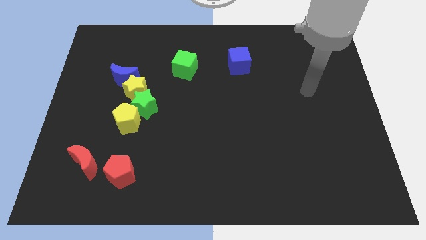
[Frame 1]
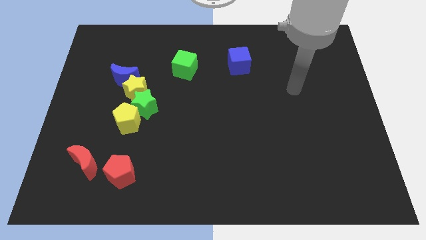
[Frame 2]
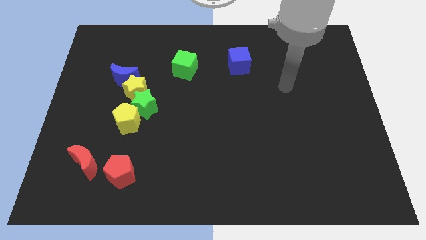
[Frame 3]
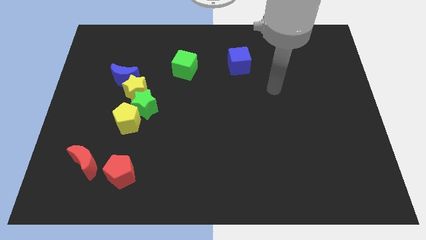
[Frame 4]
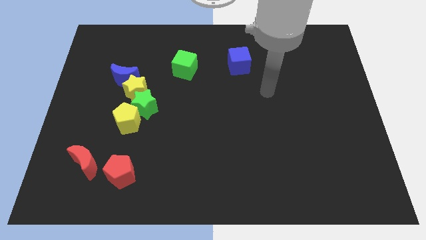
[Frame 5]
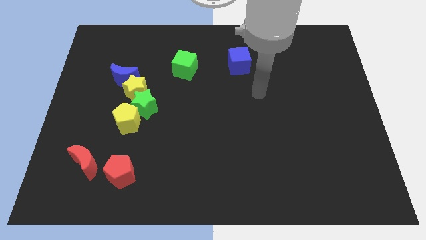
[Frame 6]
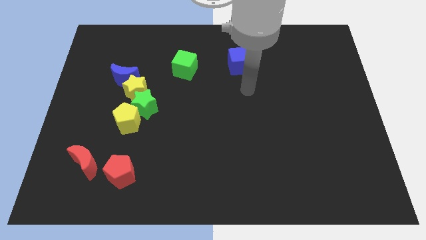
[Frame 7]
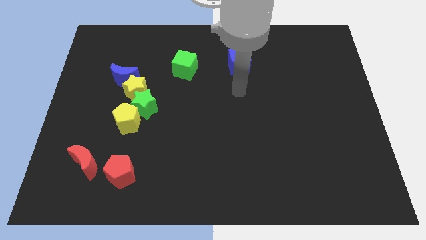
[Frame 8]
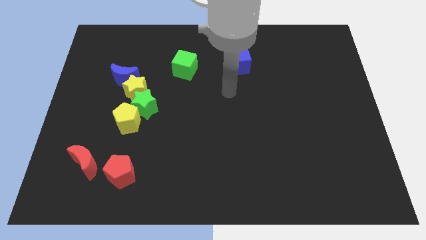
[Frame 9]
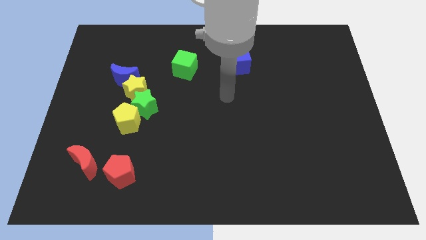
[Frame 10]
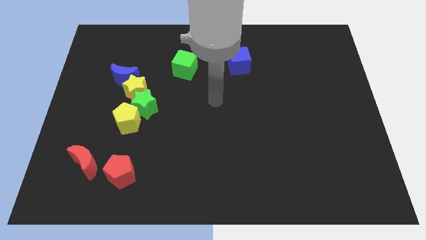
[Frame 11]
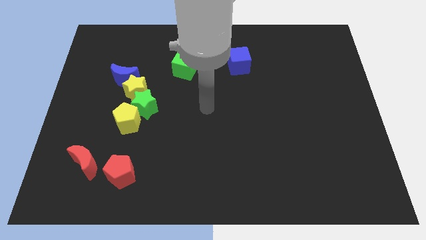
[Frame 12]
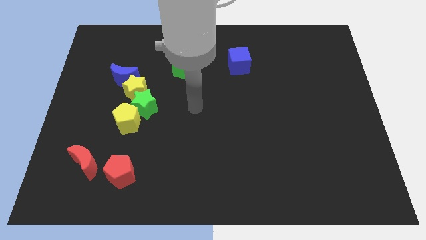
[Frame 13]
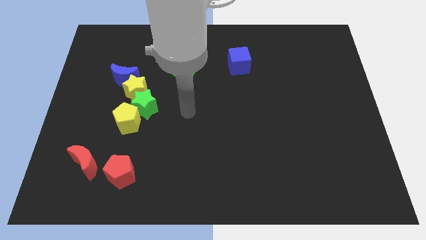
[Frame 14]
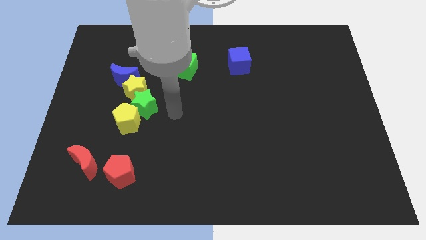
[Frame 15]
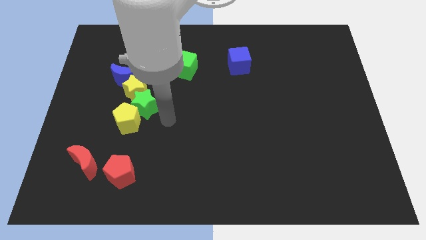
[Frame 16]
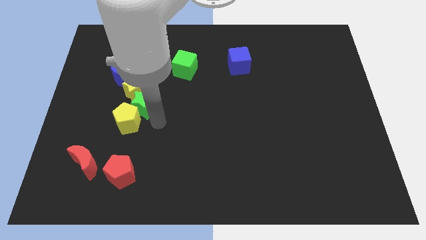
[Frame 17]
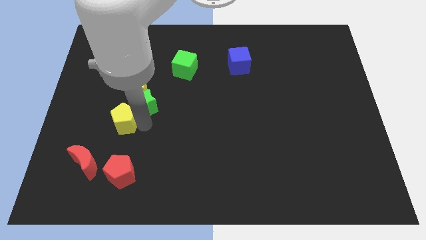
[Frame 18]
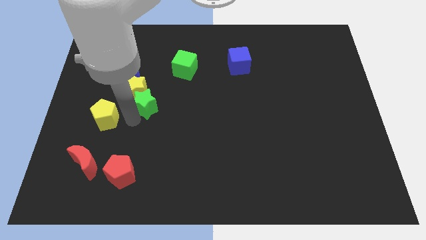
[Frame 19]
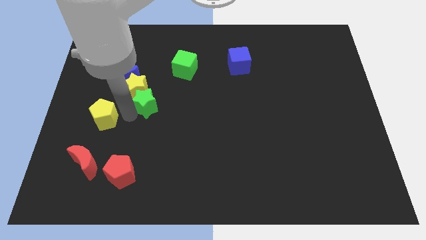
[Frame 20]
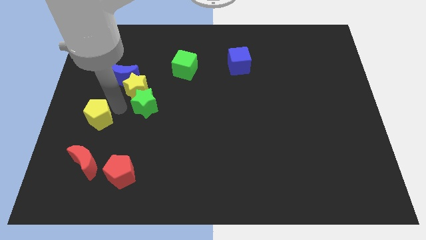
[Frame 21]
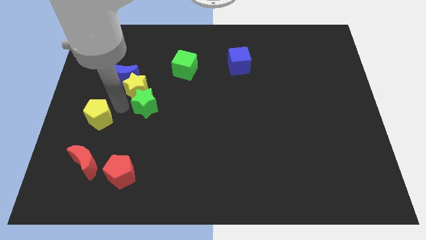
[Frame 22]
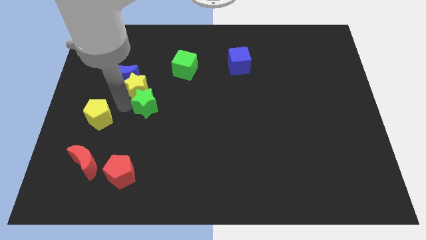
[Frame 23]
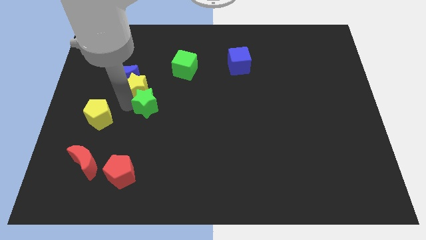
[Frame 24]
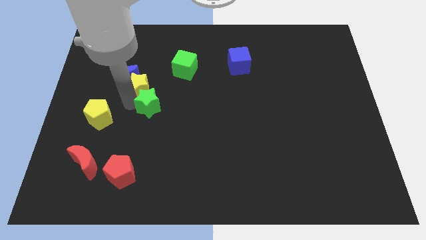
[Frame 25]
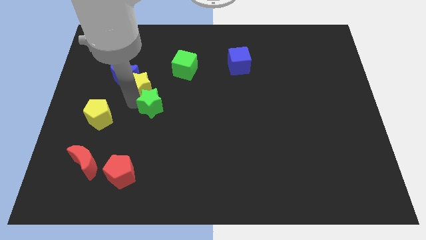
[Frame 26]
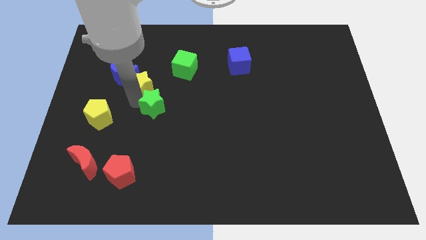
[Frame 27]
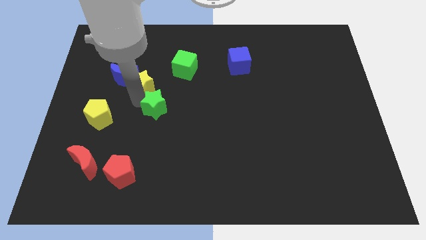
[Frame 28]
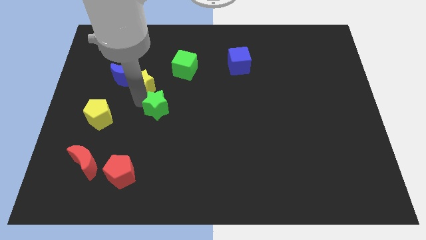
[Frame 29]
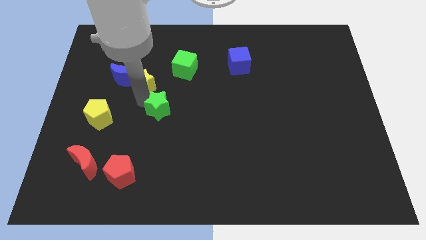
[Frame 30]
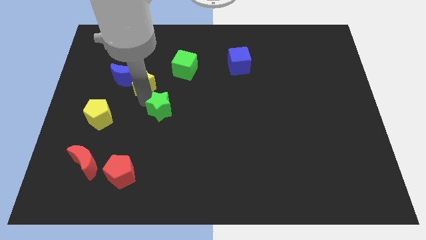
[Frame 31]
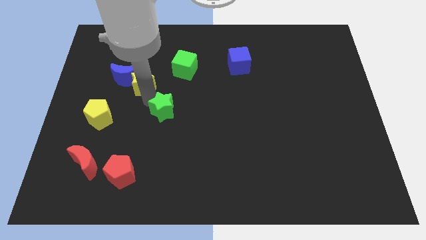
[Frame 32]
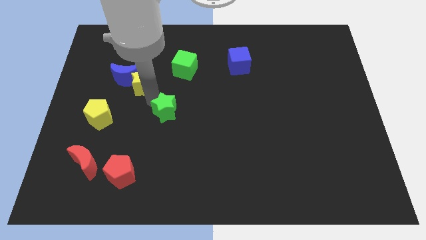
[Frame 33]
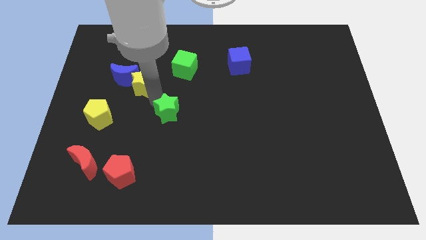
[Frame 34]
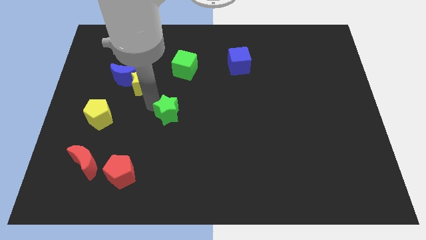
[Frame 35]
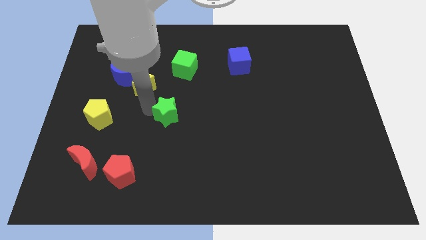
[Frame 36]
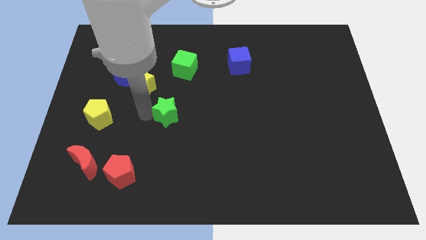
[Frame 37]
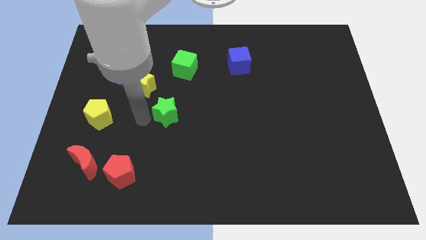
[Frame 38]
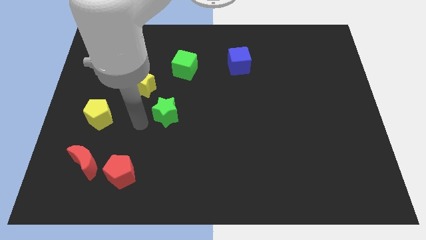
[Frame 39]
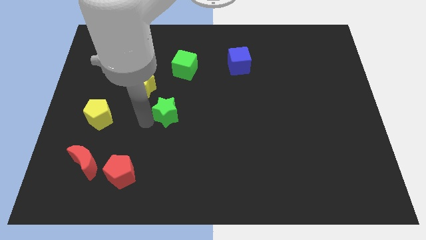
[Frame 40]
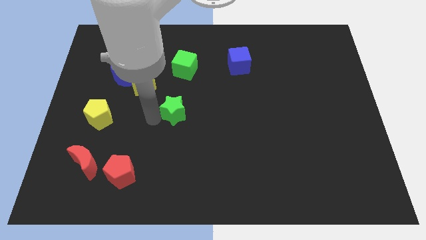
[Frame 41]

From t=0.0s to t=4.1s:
slightly push the green star right

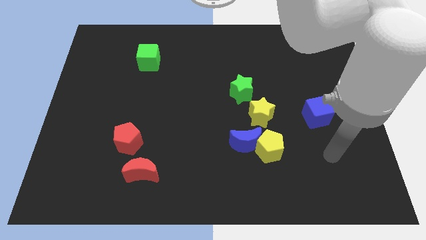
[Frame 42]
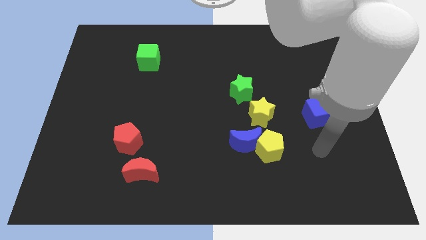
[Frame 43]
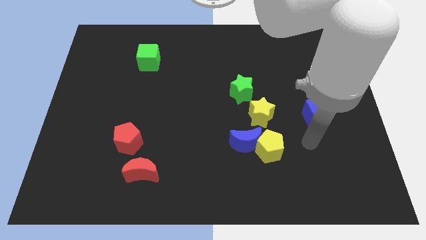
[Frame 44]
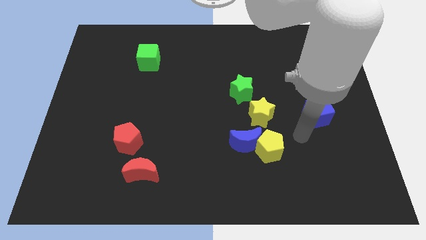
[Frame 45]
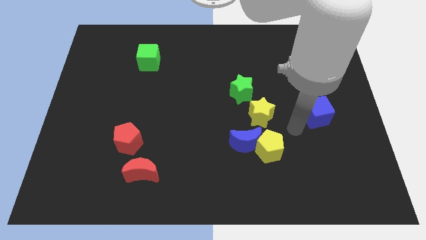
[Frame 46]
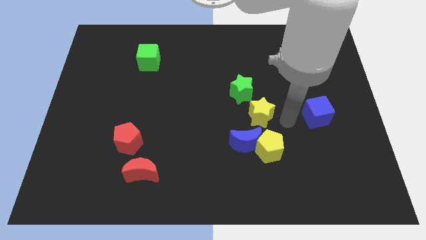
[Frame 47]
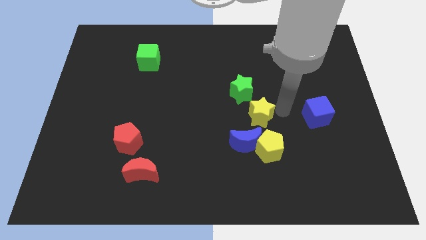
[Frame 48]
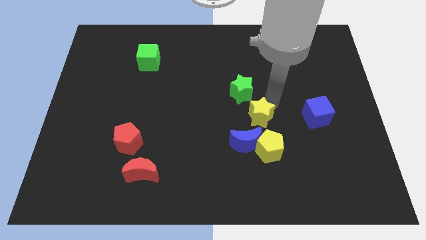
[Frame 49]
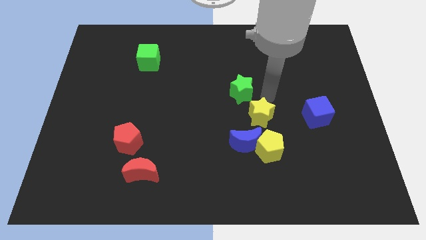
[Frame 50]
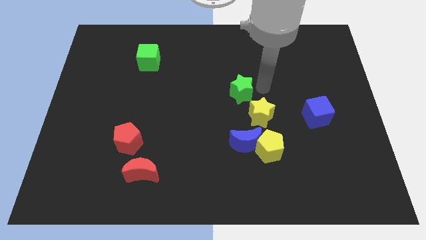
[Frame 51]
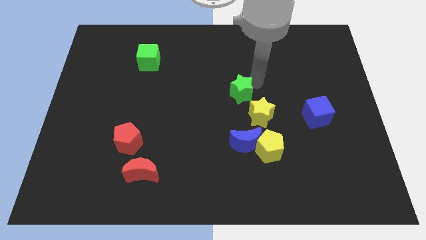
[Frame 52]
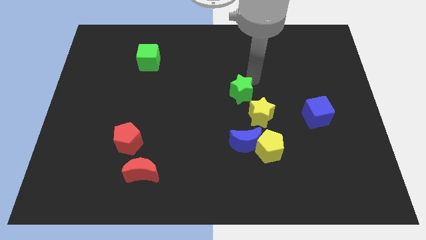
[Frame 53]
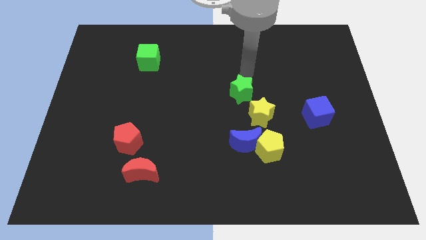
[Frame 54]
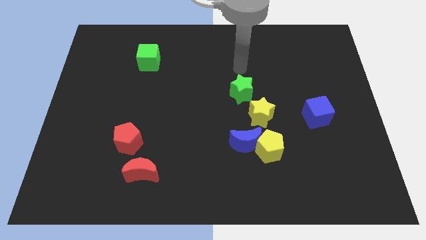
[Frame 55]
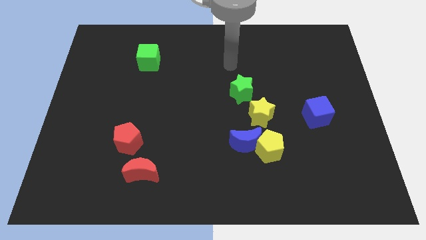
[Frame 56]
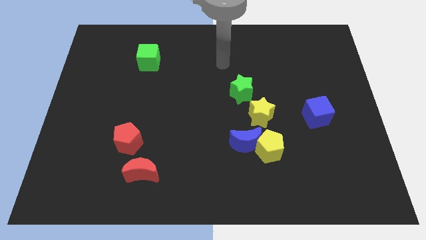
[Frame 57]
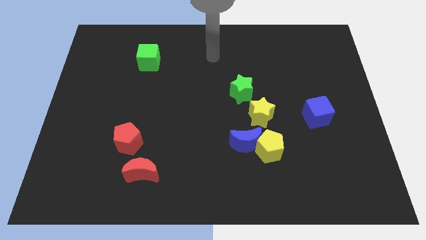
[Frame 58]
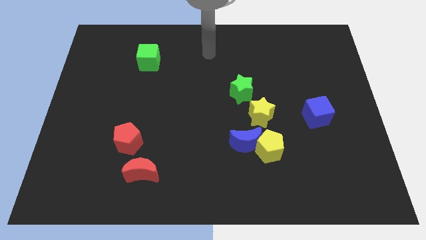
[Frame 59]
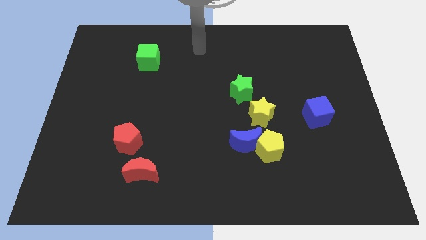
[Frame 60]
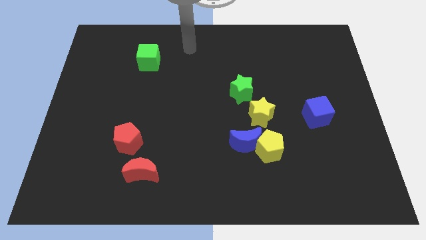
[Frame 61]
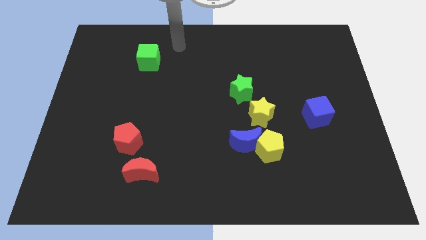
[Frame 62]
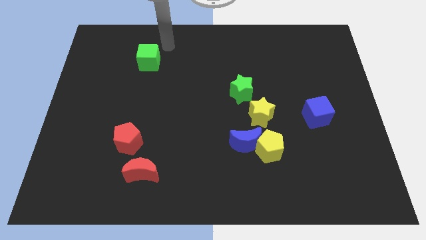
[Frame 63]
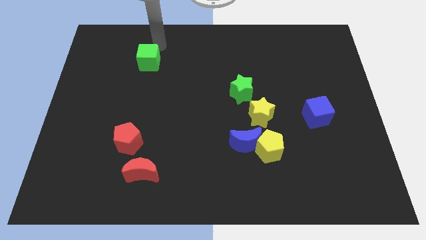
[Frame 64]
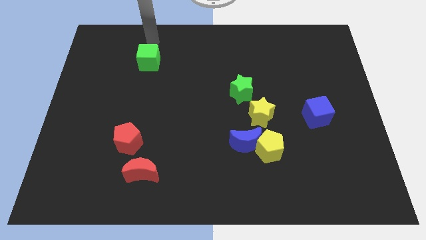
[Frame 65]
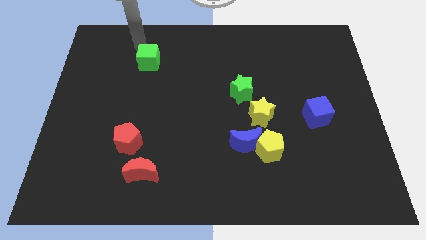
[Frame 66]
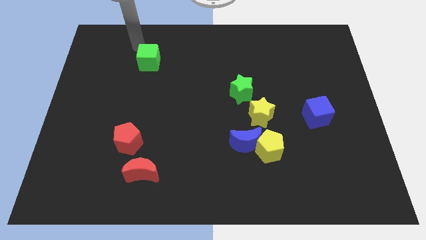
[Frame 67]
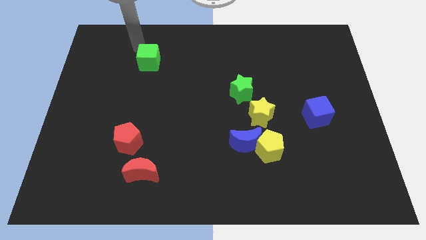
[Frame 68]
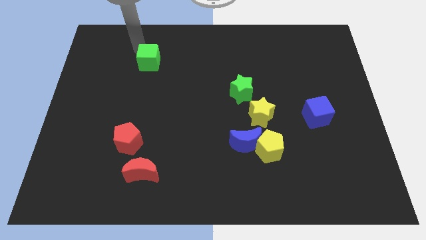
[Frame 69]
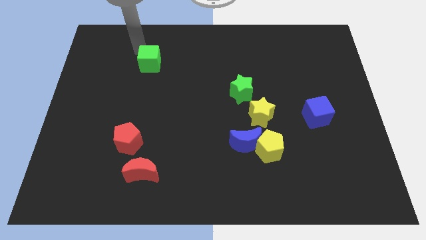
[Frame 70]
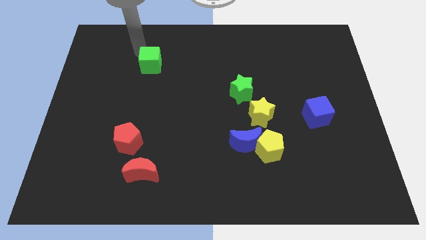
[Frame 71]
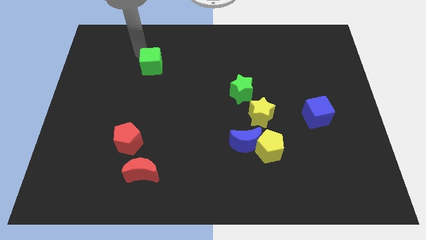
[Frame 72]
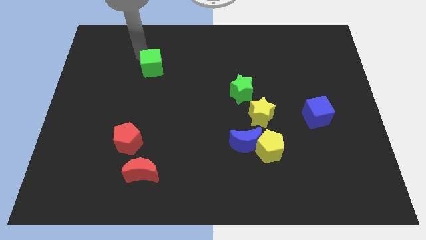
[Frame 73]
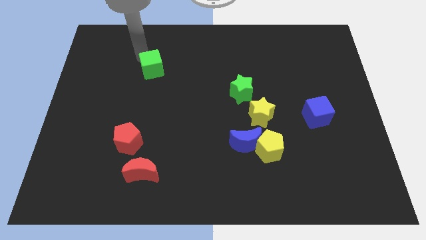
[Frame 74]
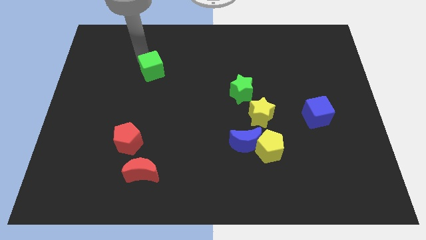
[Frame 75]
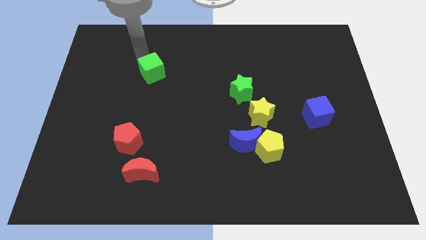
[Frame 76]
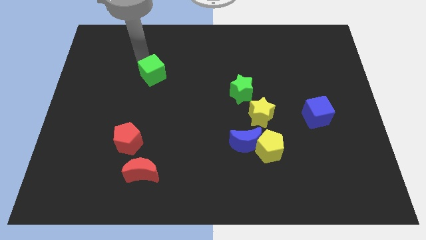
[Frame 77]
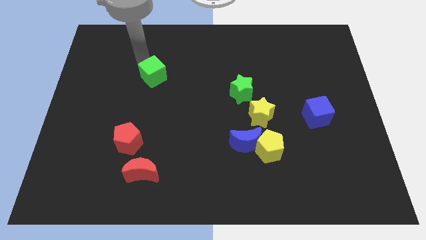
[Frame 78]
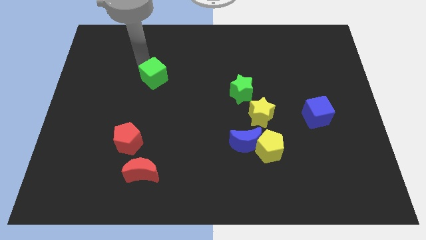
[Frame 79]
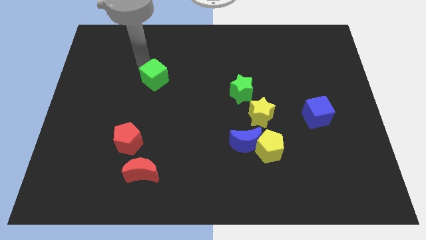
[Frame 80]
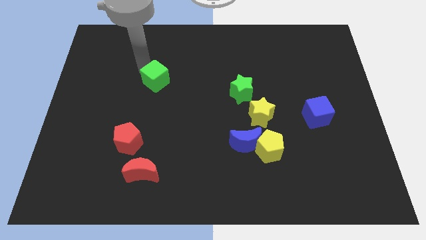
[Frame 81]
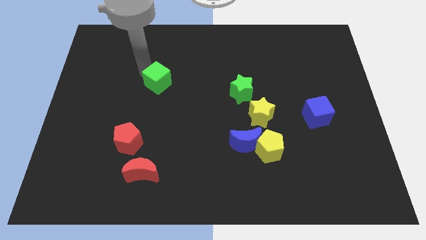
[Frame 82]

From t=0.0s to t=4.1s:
push the green cube a little diagonally down and right

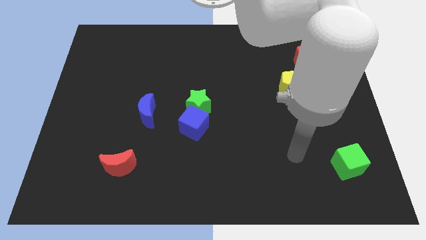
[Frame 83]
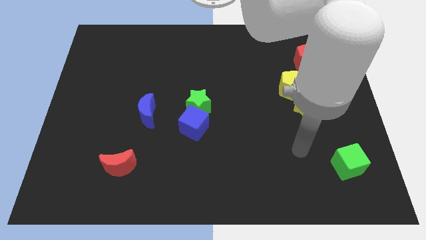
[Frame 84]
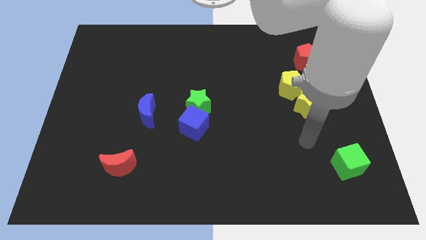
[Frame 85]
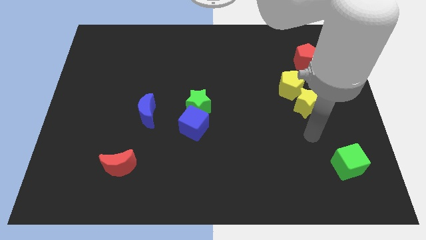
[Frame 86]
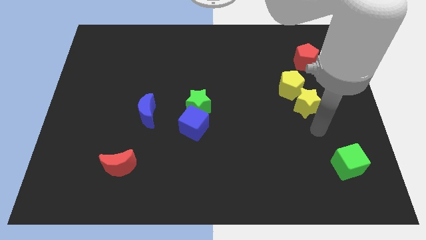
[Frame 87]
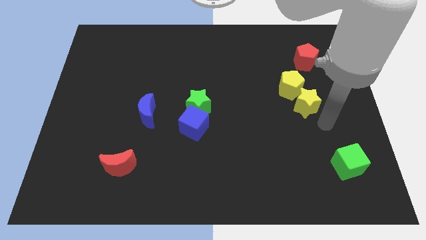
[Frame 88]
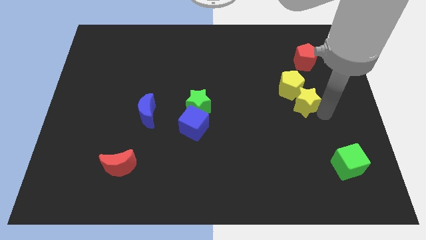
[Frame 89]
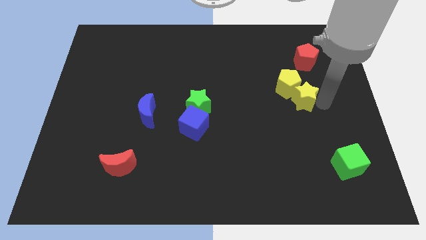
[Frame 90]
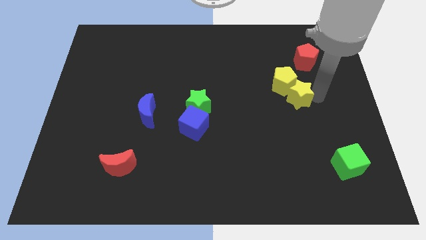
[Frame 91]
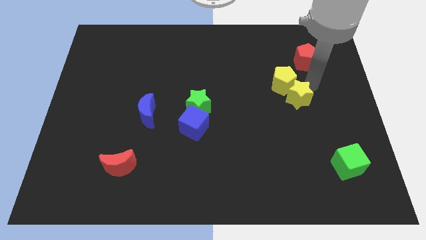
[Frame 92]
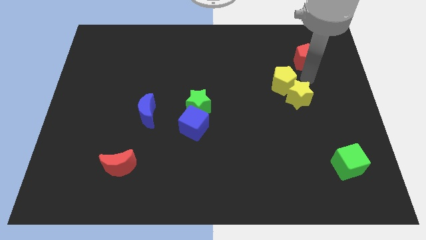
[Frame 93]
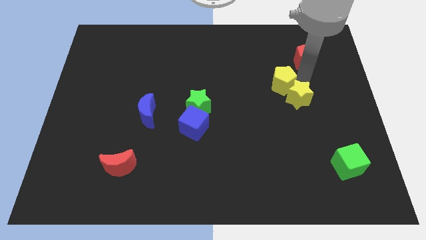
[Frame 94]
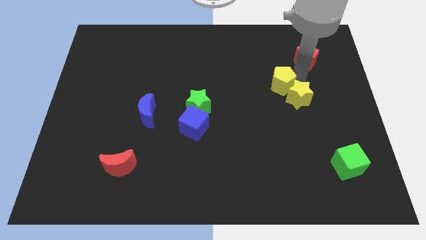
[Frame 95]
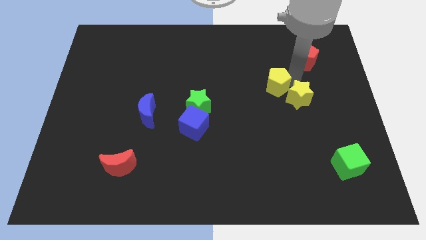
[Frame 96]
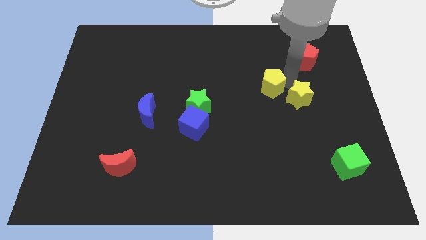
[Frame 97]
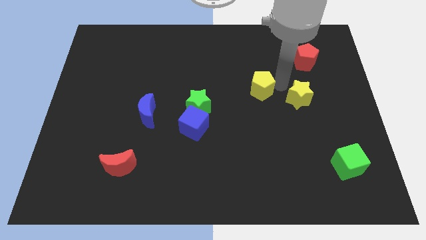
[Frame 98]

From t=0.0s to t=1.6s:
slide the yellow pentagon left a little bit
